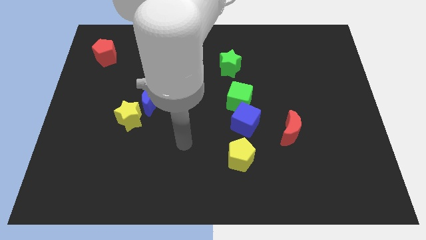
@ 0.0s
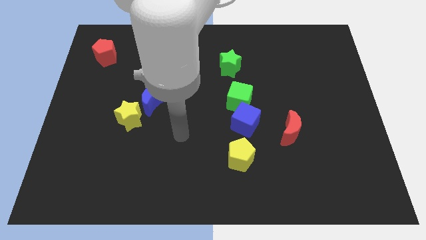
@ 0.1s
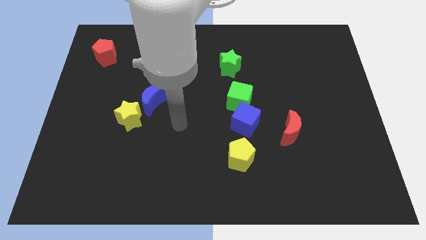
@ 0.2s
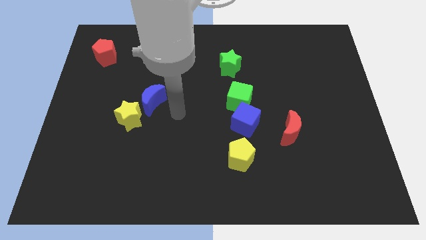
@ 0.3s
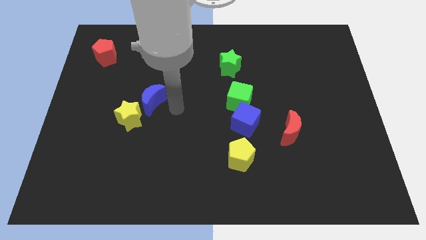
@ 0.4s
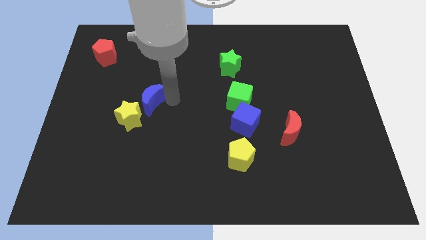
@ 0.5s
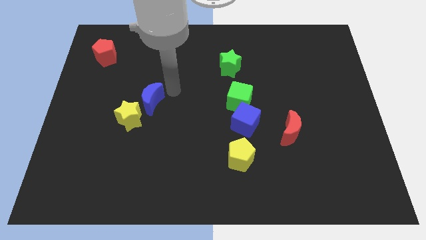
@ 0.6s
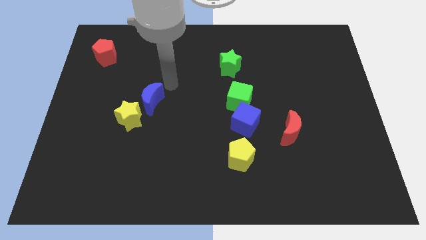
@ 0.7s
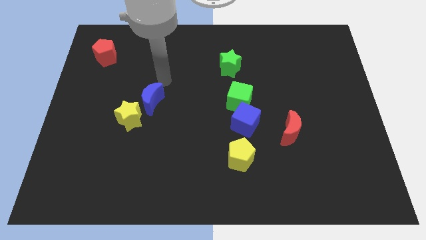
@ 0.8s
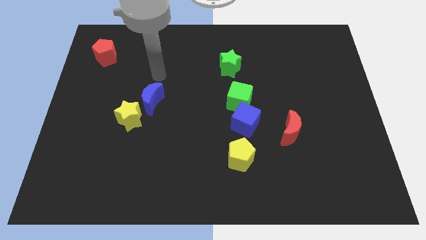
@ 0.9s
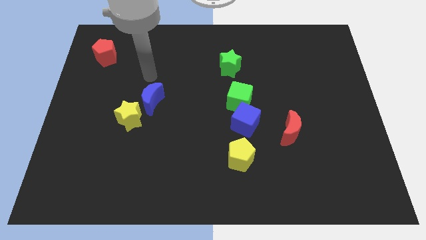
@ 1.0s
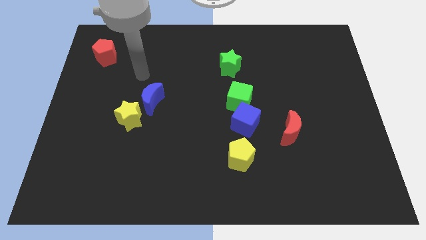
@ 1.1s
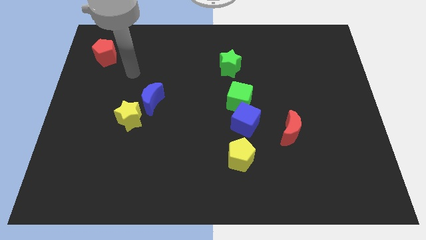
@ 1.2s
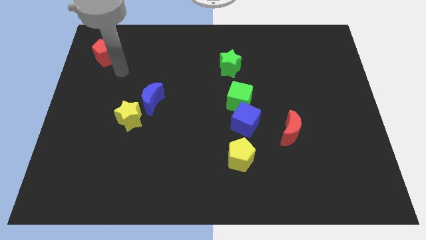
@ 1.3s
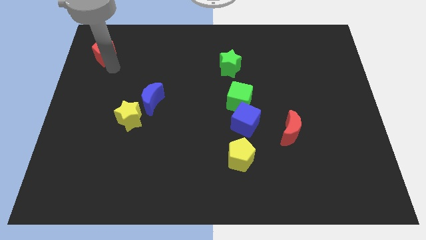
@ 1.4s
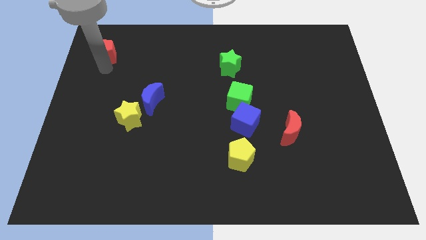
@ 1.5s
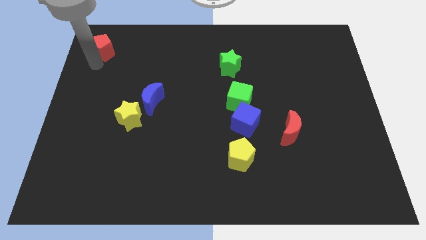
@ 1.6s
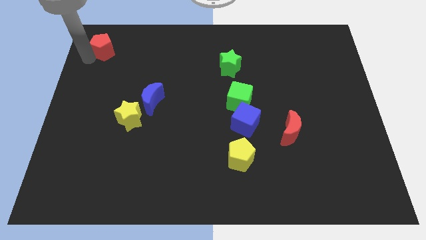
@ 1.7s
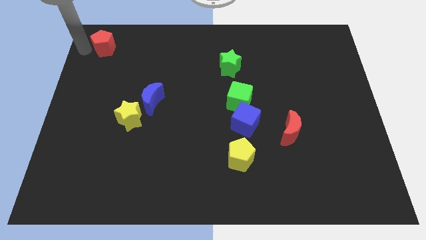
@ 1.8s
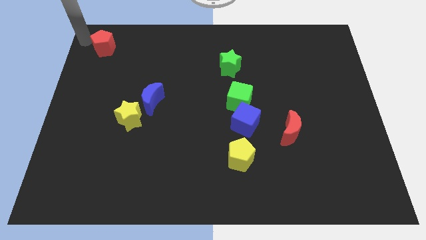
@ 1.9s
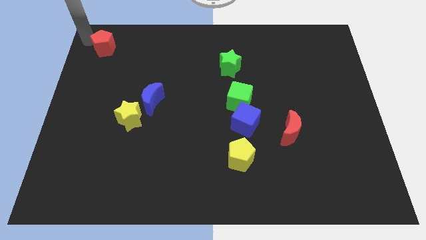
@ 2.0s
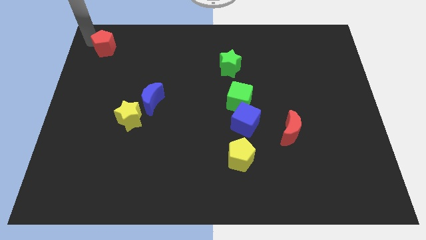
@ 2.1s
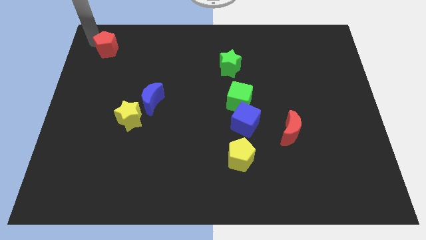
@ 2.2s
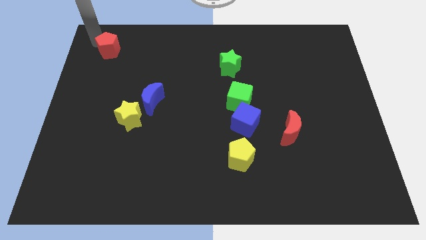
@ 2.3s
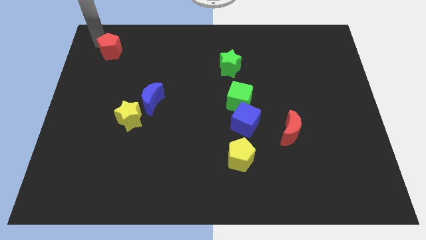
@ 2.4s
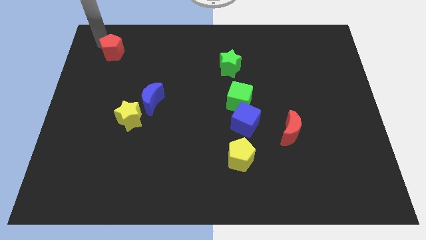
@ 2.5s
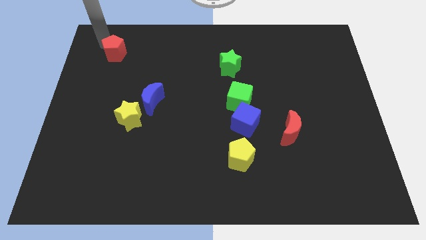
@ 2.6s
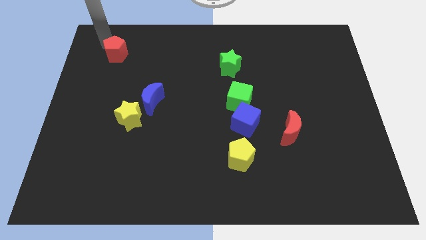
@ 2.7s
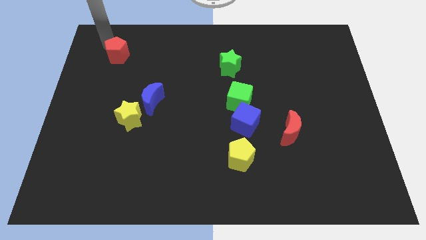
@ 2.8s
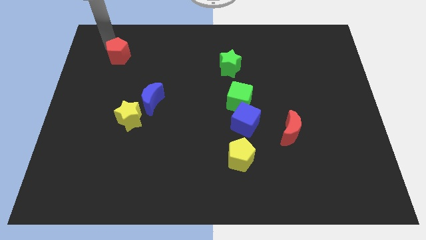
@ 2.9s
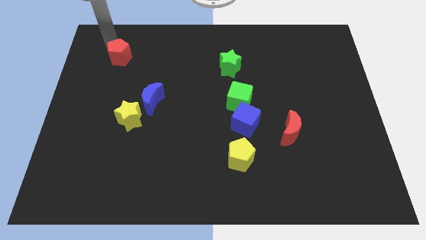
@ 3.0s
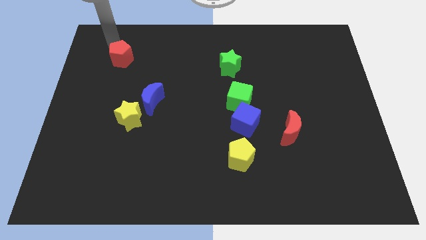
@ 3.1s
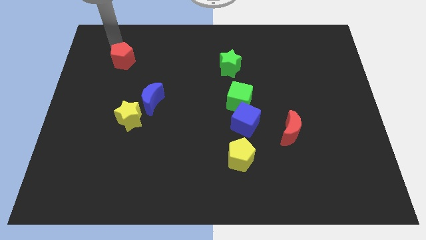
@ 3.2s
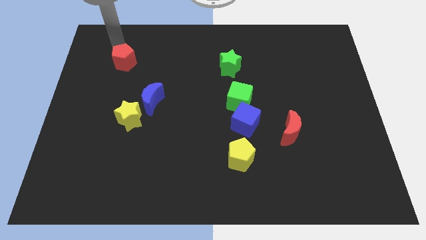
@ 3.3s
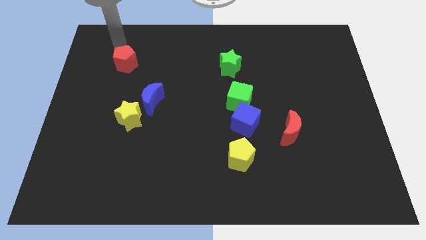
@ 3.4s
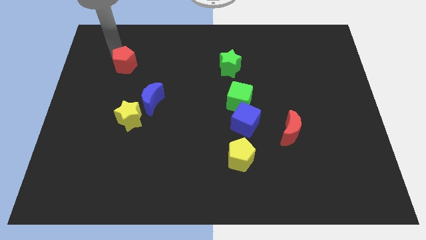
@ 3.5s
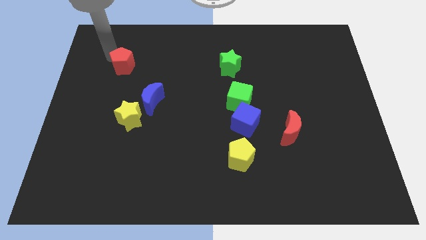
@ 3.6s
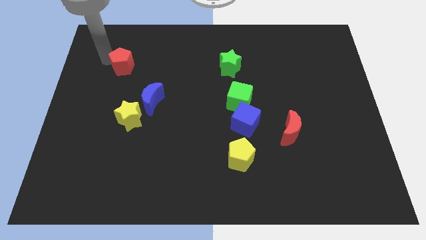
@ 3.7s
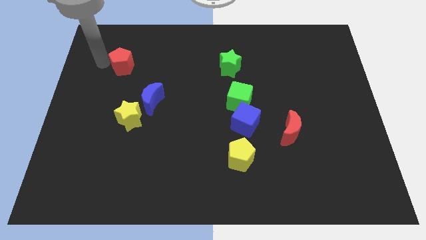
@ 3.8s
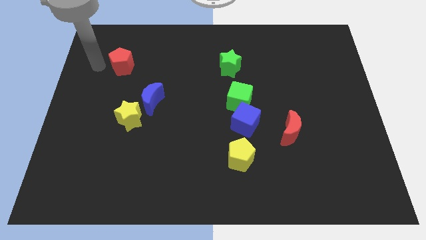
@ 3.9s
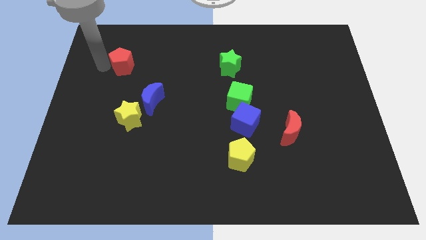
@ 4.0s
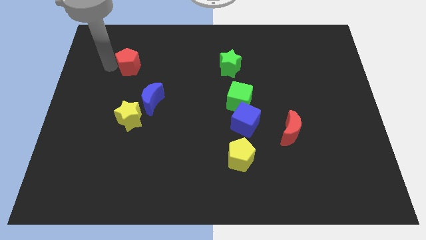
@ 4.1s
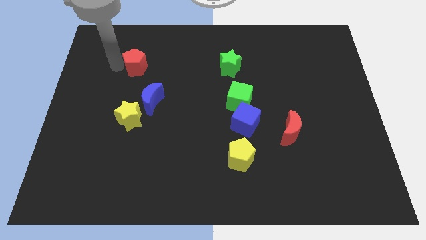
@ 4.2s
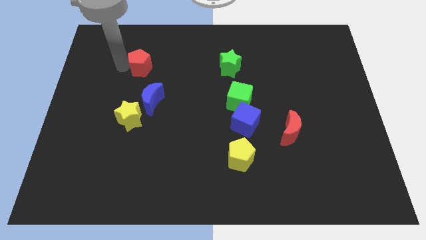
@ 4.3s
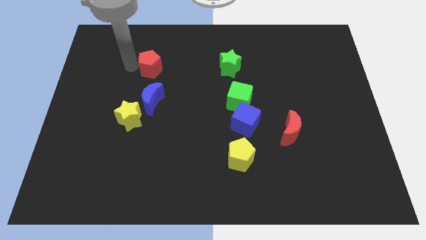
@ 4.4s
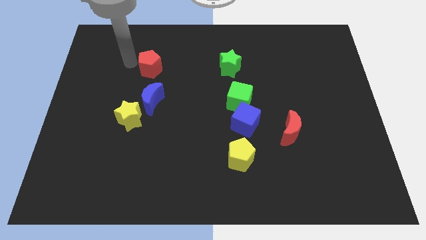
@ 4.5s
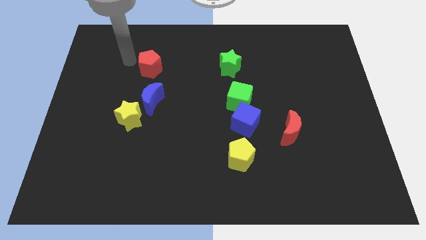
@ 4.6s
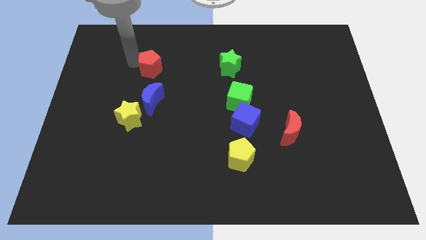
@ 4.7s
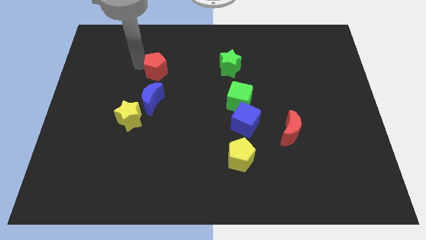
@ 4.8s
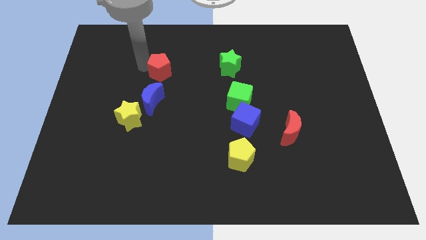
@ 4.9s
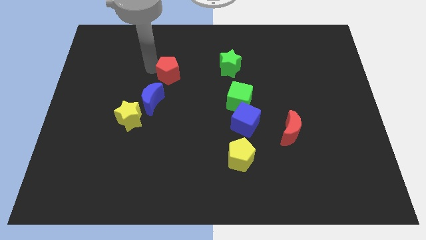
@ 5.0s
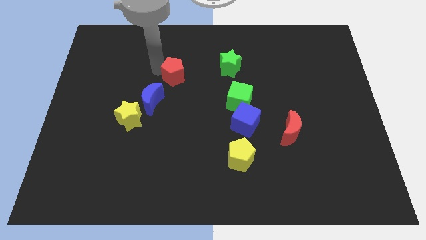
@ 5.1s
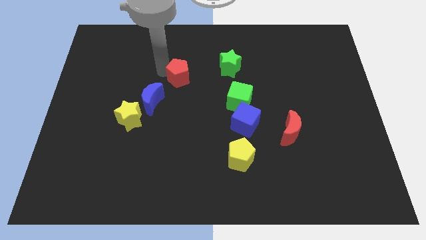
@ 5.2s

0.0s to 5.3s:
put the red pentagon to the middle

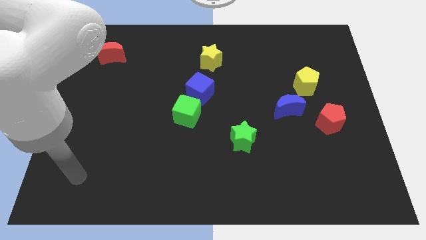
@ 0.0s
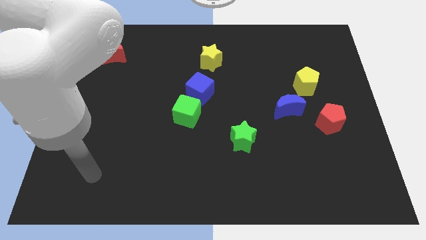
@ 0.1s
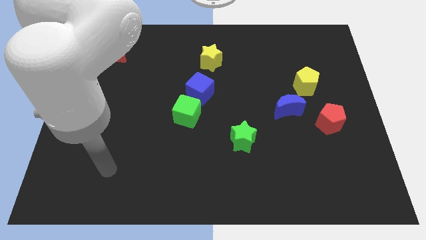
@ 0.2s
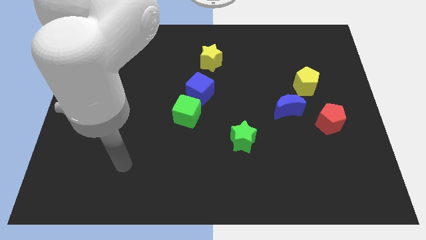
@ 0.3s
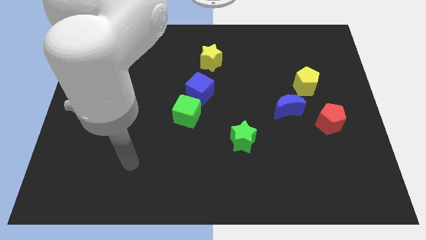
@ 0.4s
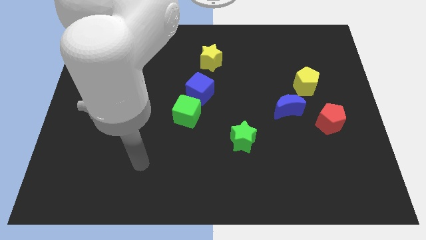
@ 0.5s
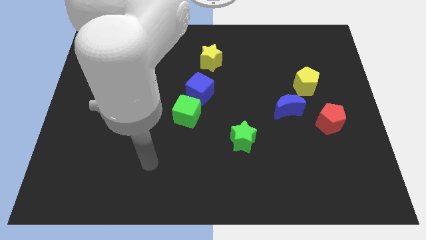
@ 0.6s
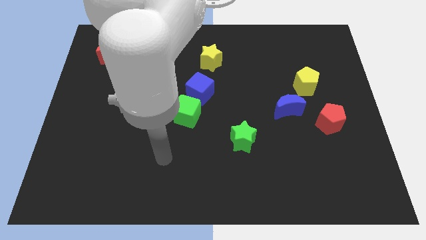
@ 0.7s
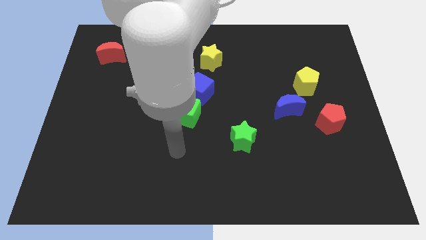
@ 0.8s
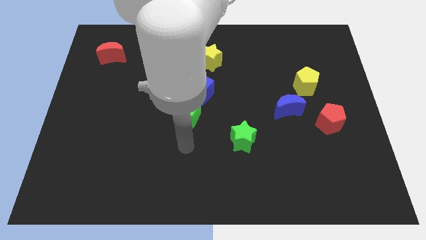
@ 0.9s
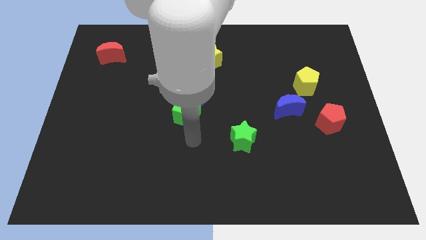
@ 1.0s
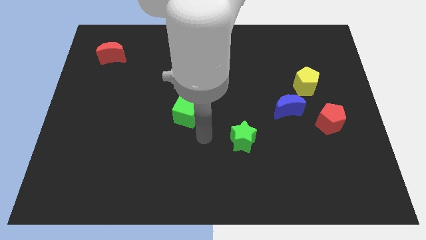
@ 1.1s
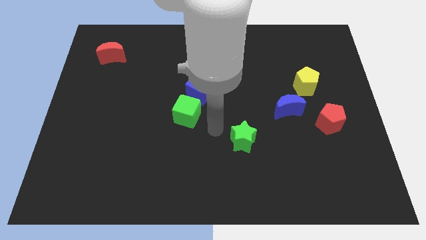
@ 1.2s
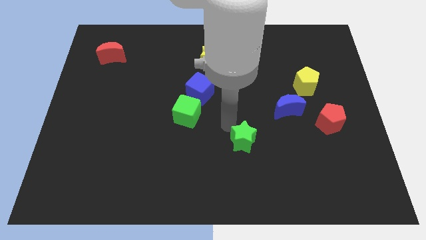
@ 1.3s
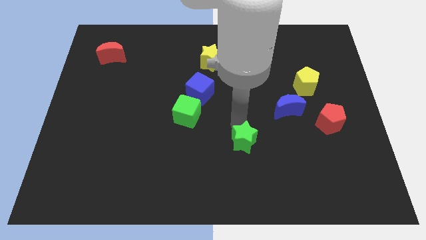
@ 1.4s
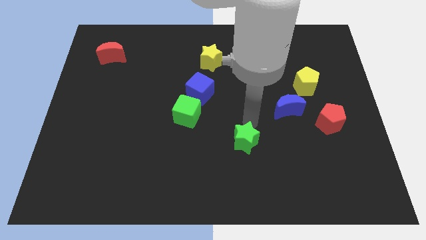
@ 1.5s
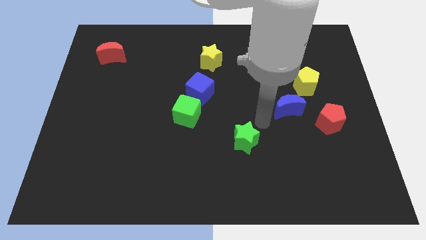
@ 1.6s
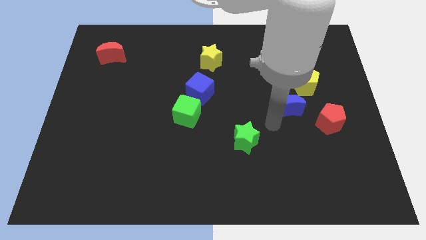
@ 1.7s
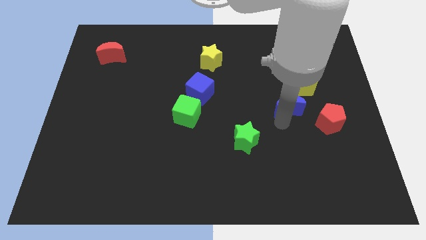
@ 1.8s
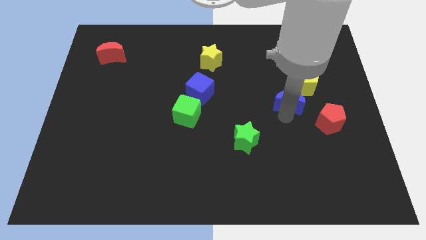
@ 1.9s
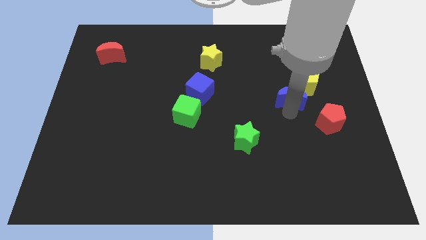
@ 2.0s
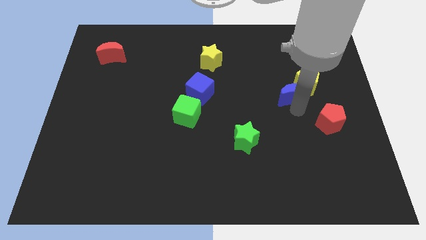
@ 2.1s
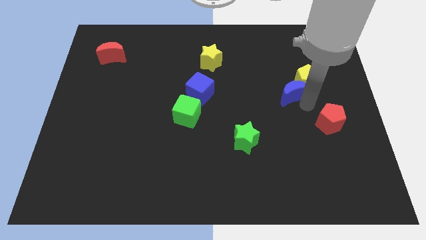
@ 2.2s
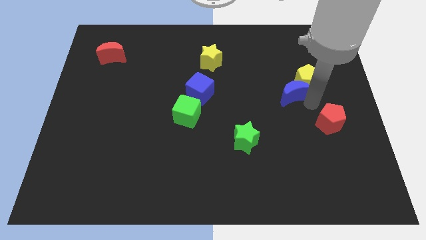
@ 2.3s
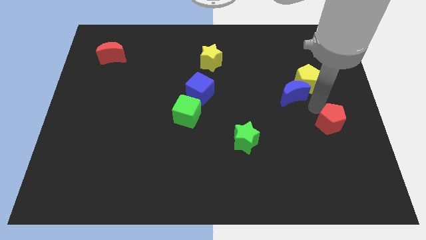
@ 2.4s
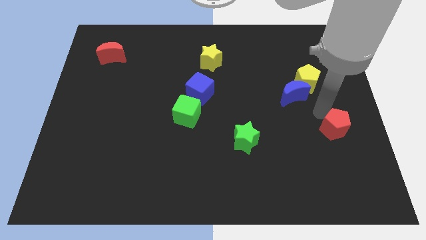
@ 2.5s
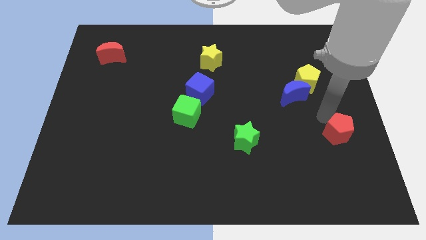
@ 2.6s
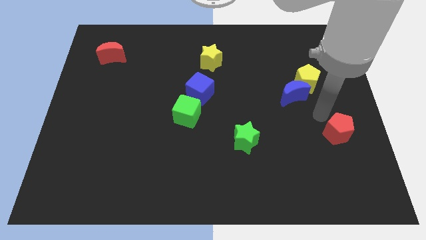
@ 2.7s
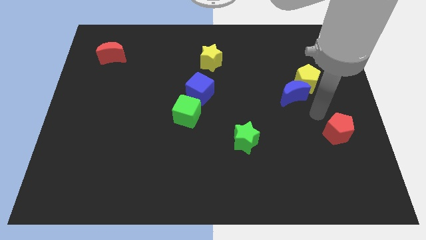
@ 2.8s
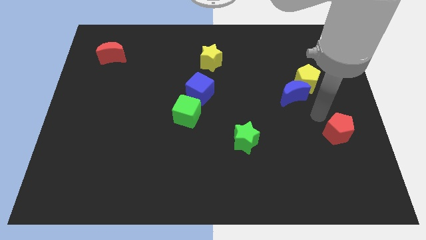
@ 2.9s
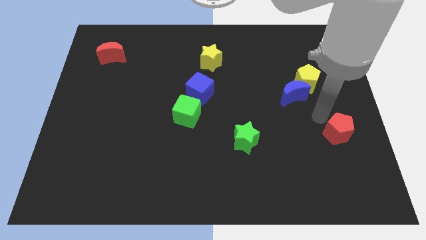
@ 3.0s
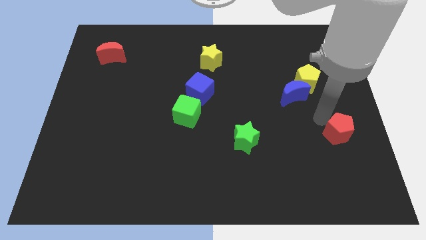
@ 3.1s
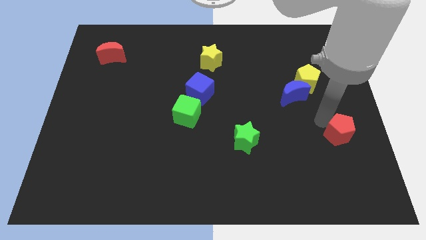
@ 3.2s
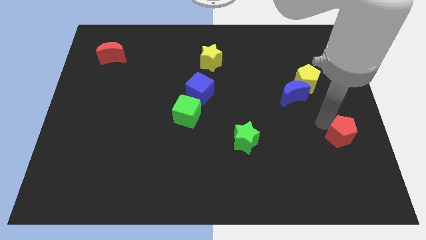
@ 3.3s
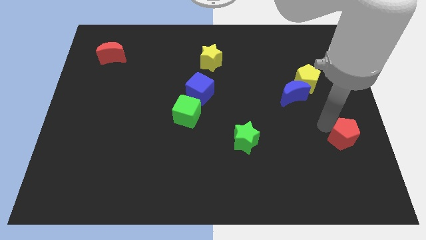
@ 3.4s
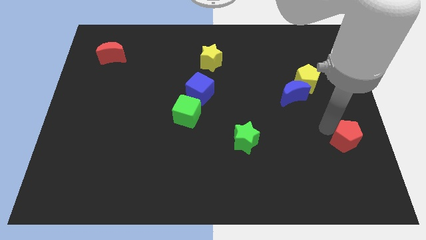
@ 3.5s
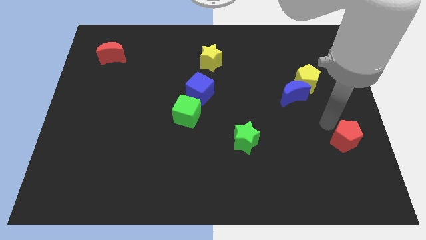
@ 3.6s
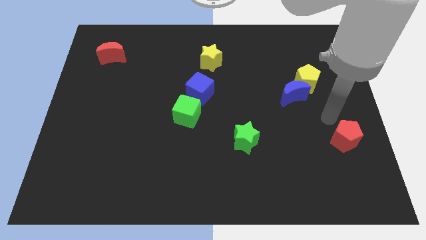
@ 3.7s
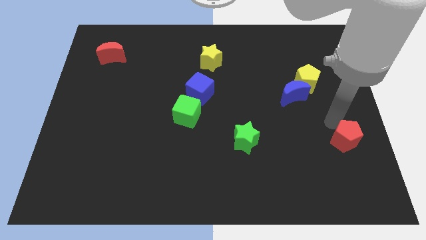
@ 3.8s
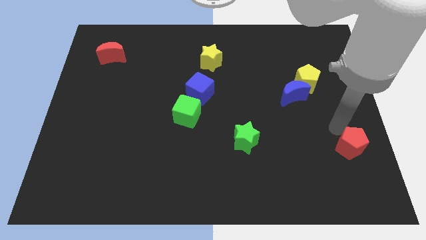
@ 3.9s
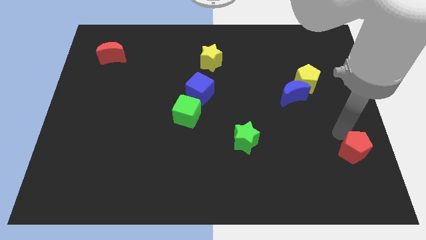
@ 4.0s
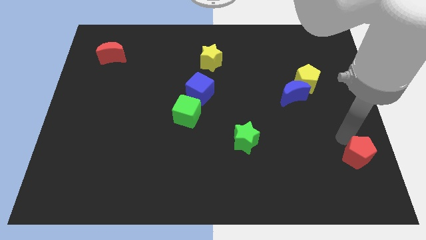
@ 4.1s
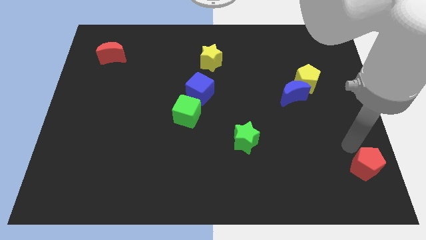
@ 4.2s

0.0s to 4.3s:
slide the red pentagon to the bottom right
